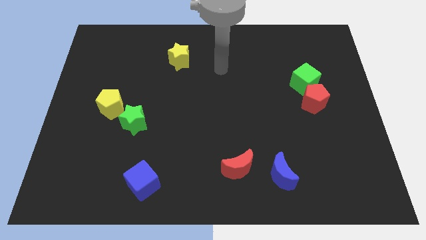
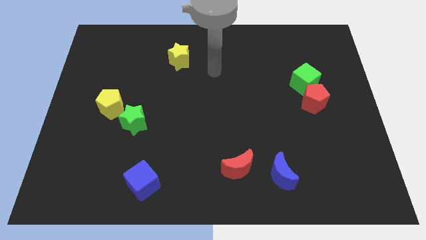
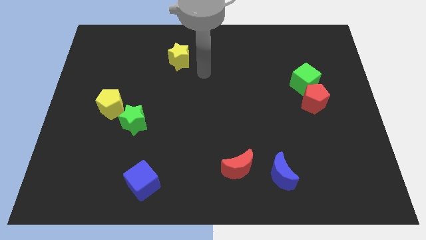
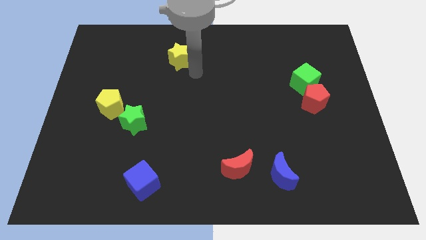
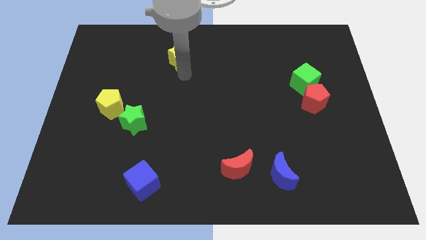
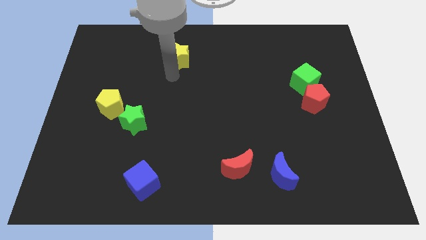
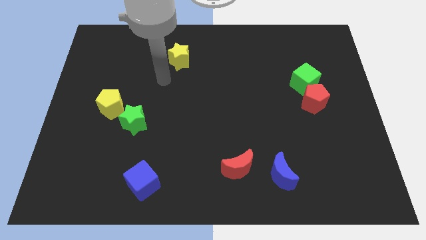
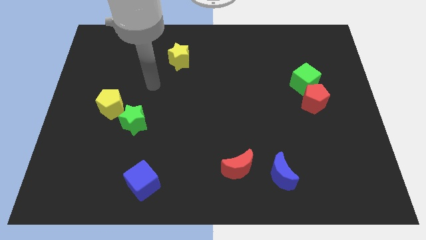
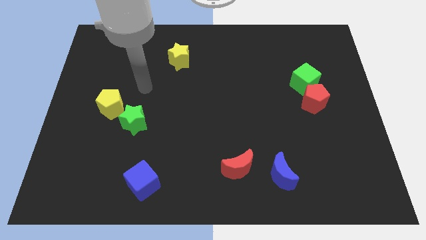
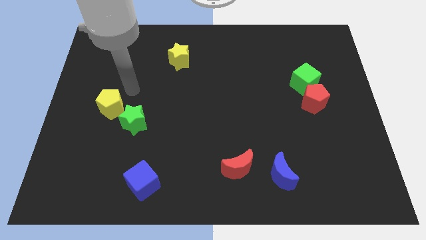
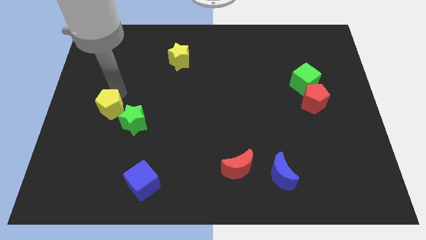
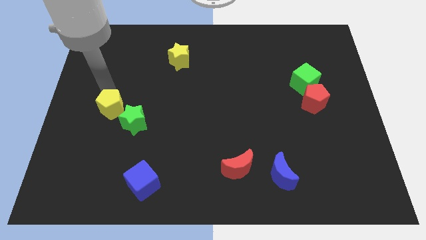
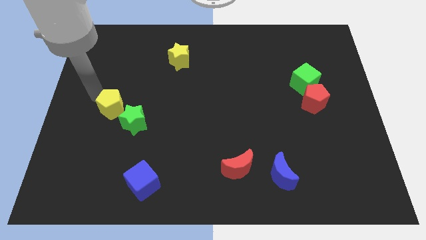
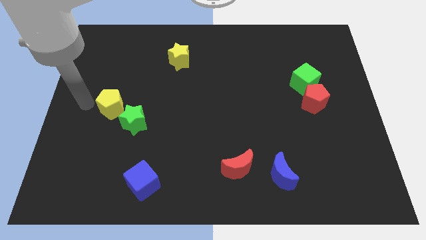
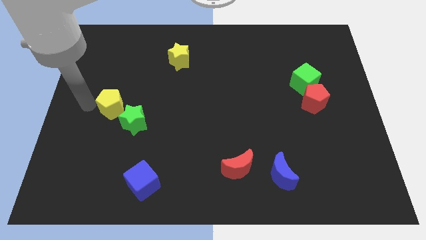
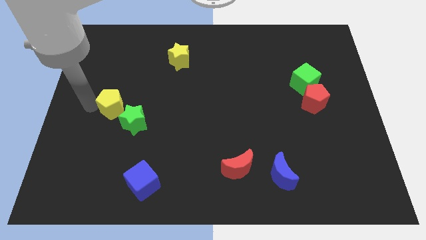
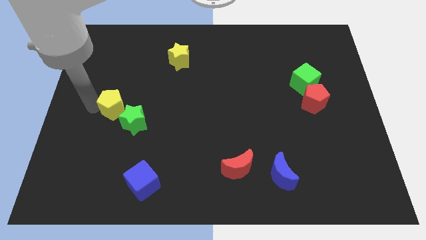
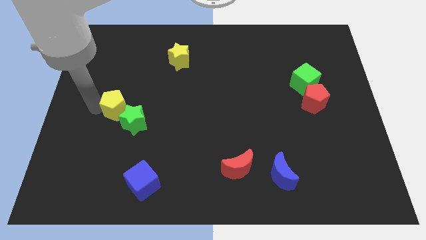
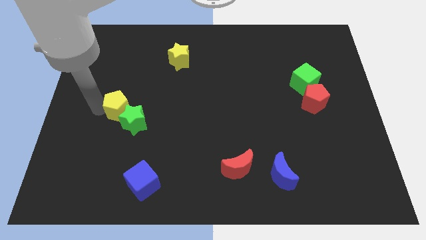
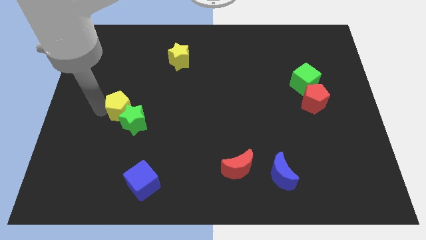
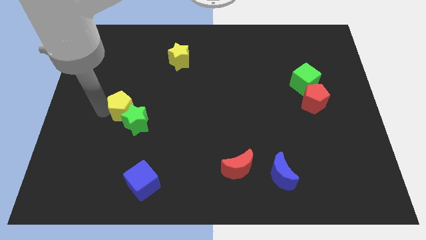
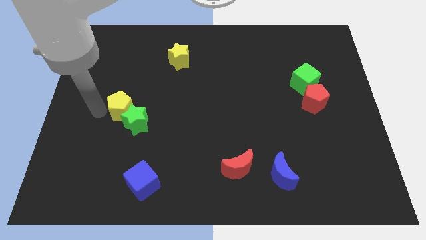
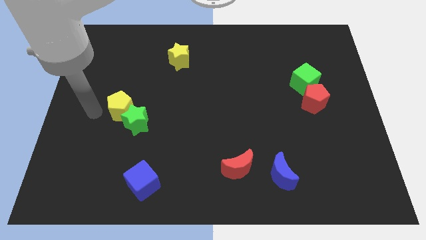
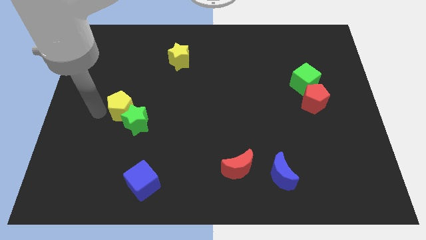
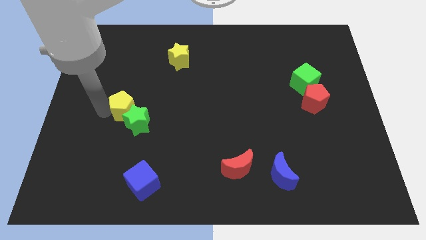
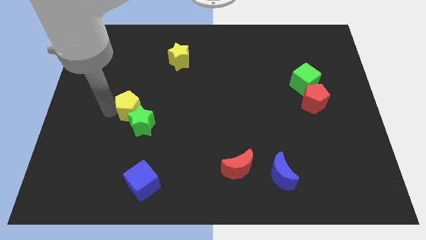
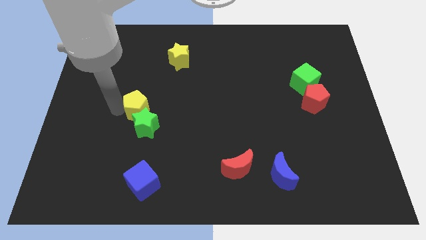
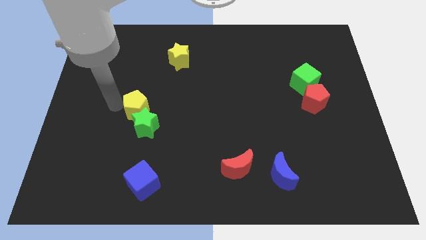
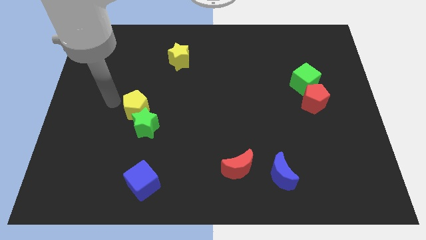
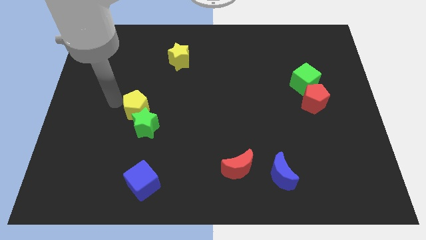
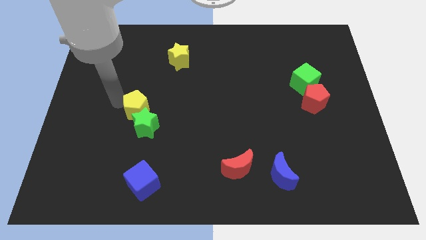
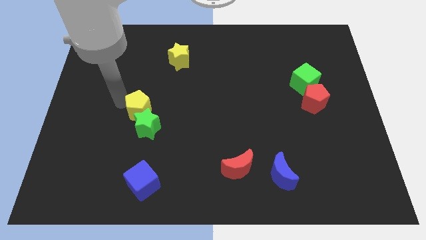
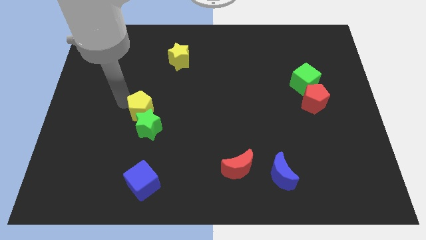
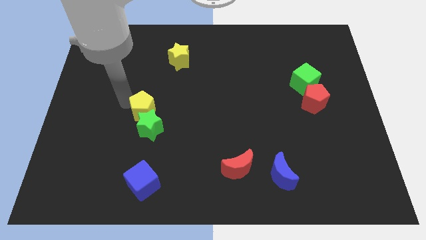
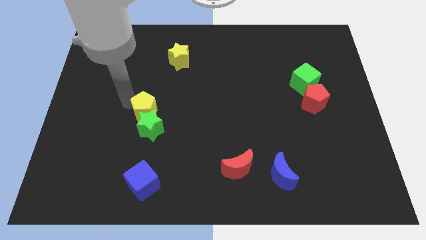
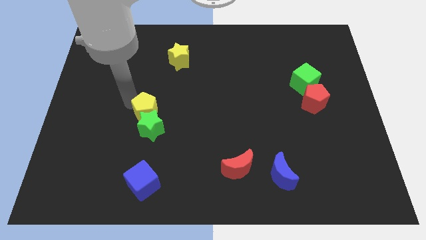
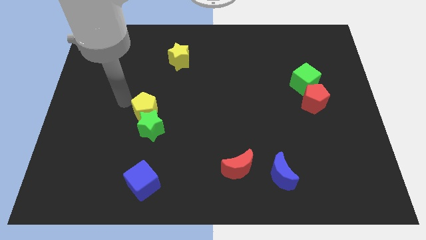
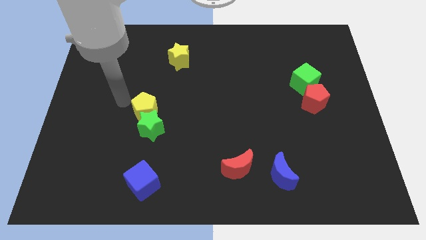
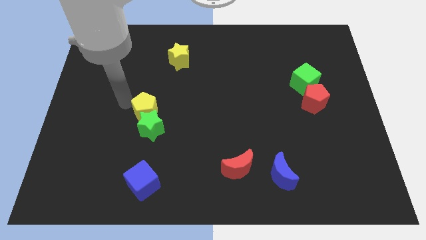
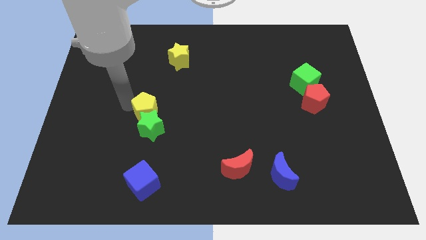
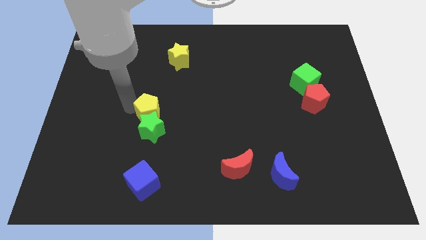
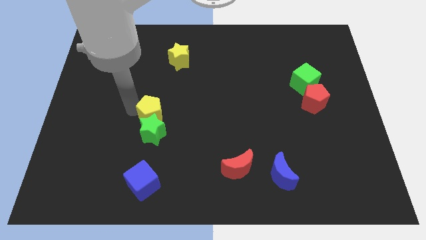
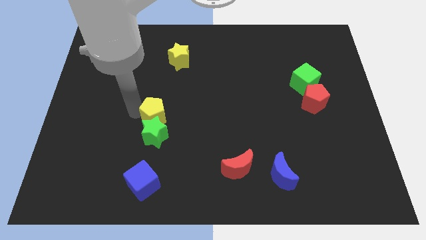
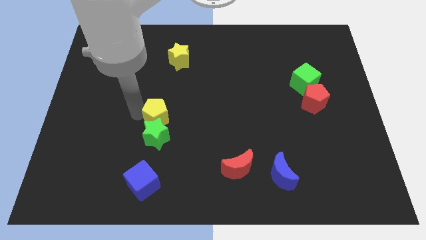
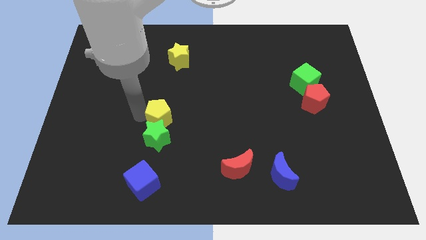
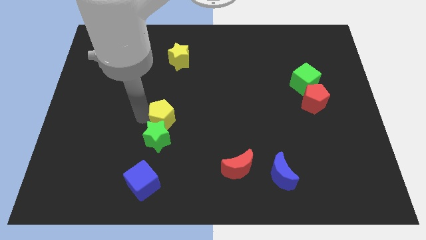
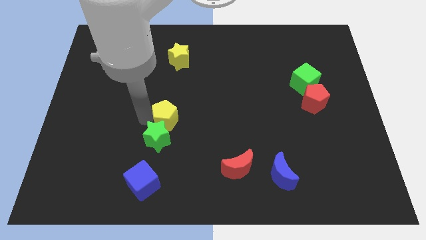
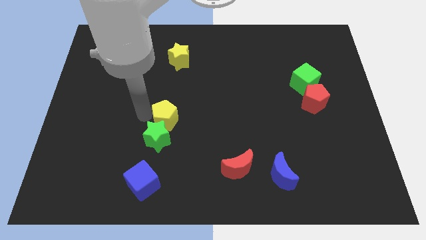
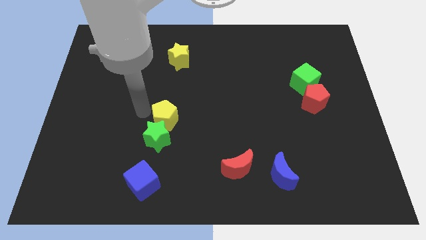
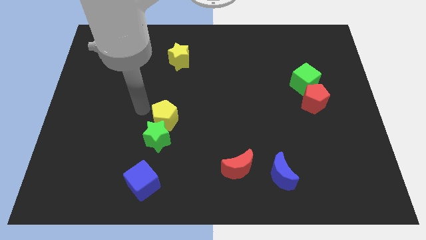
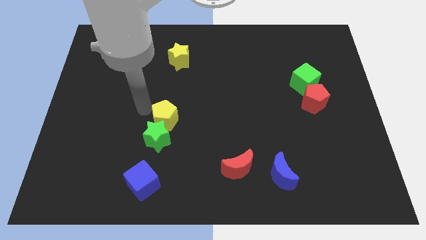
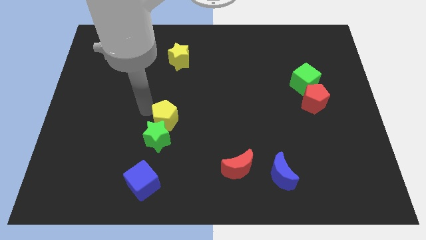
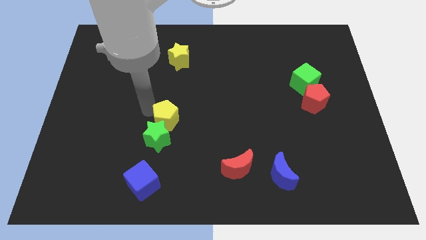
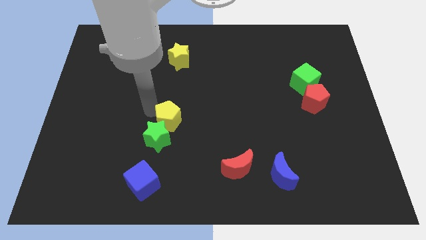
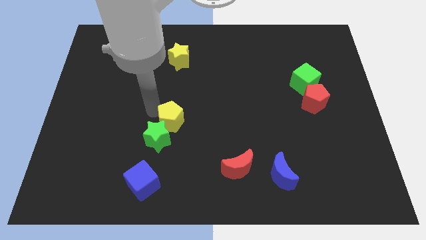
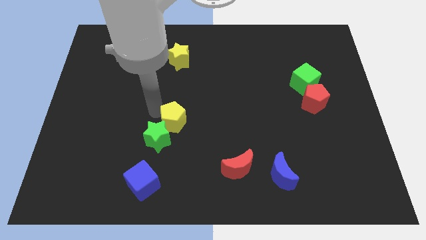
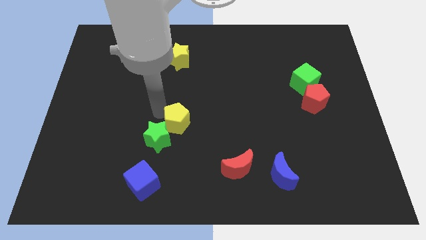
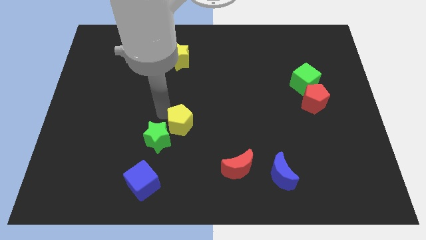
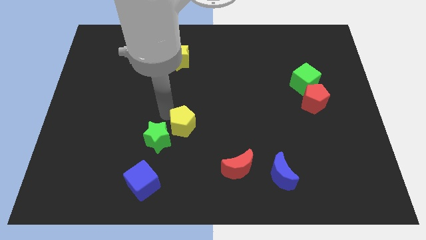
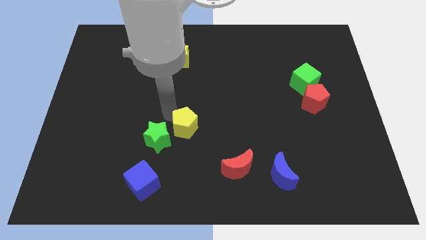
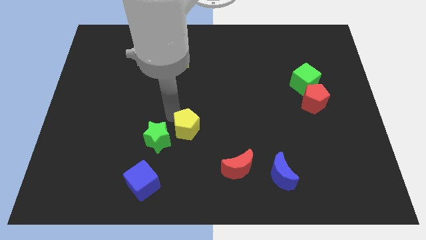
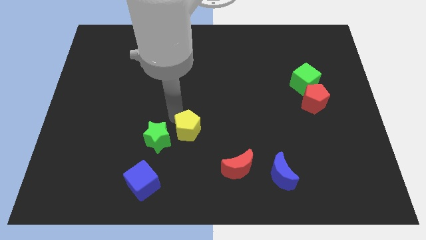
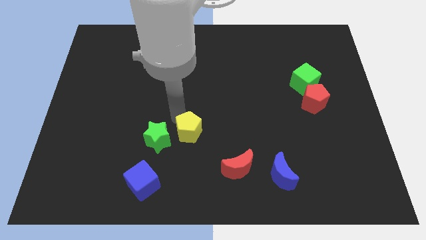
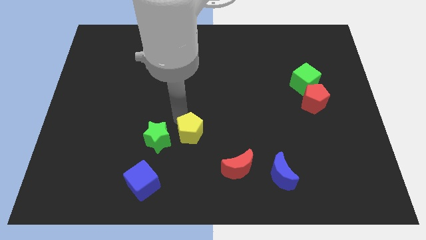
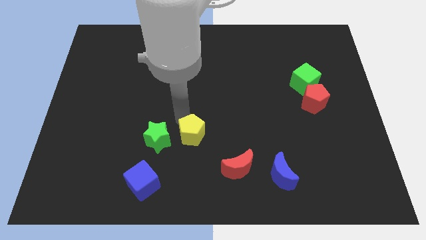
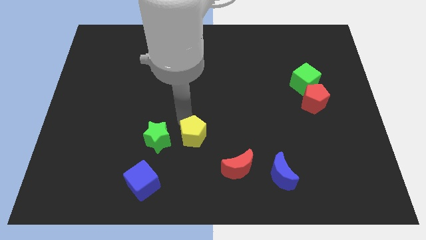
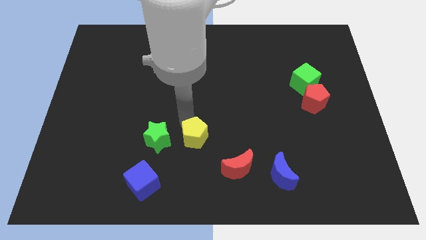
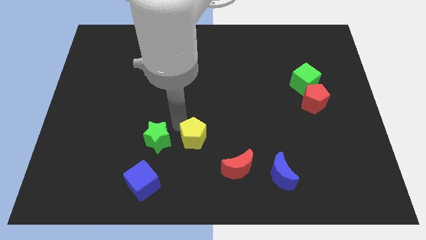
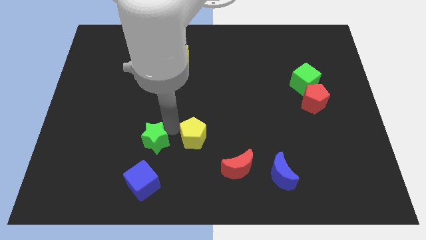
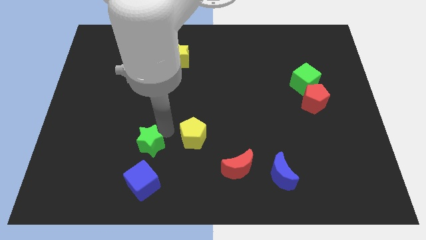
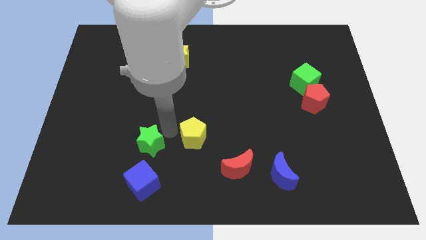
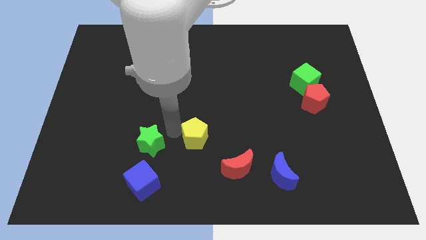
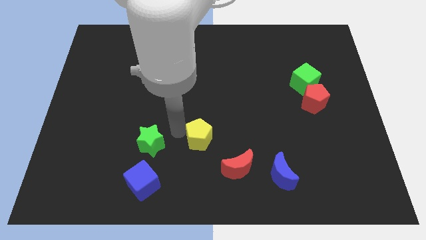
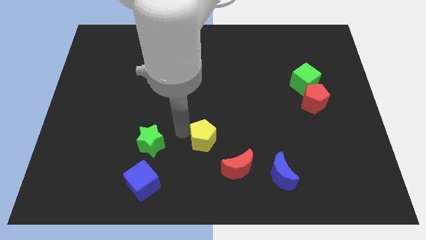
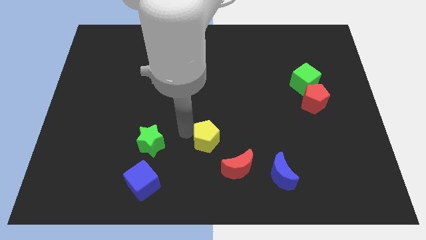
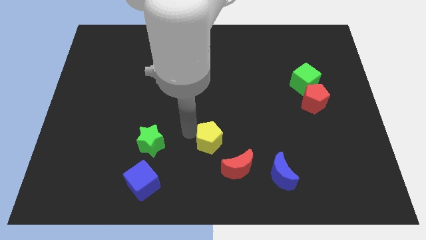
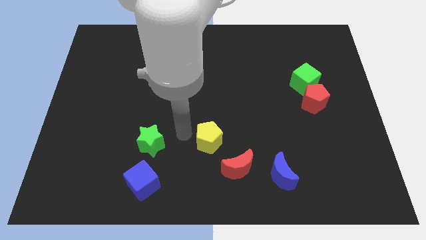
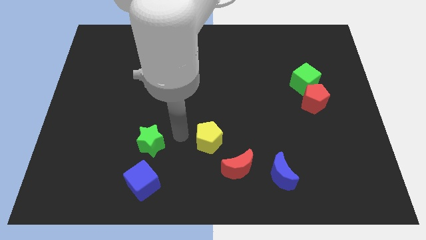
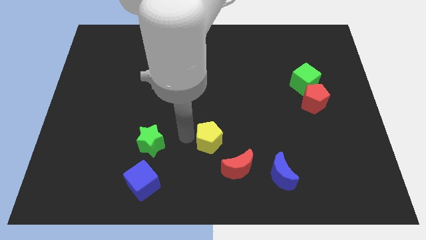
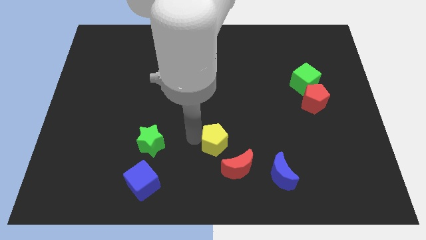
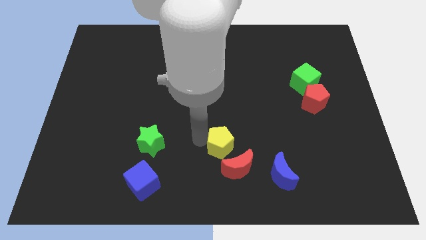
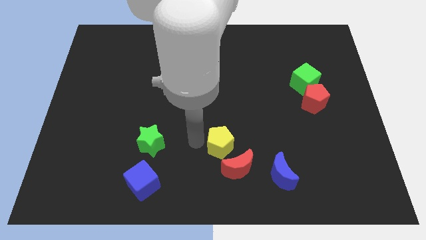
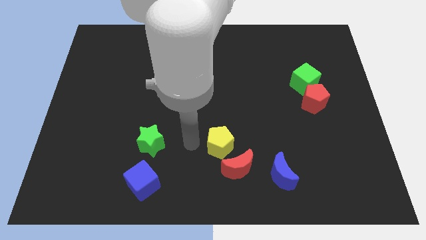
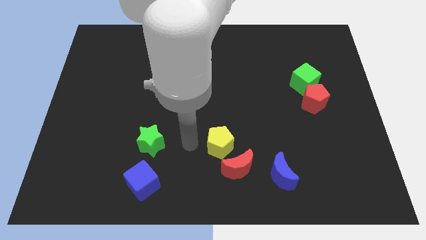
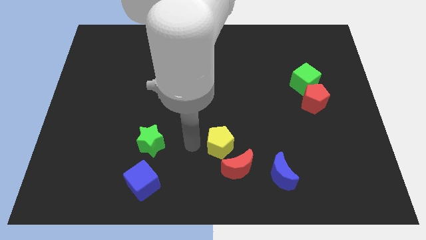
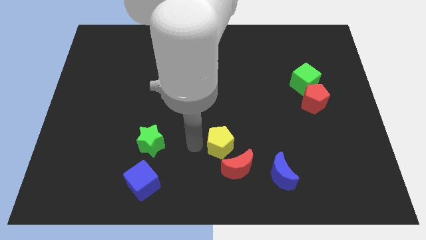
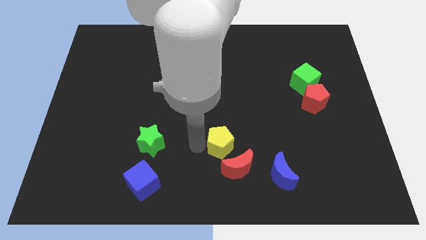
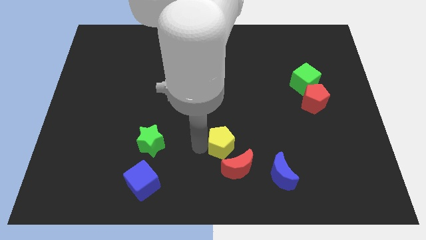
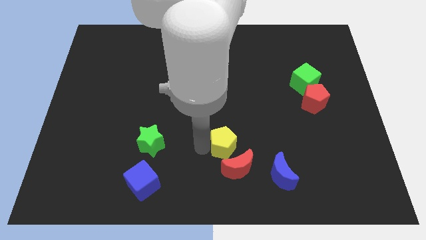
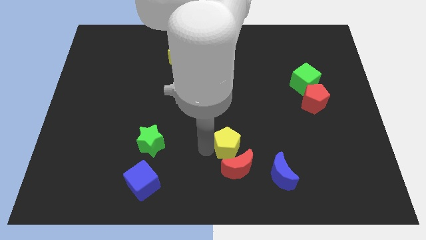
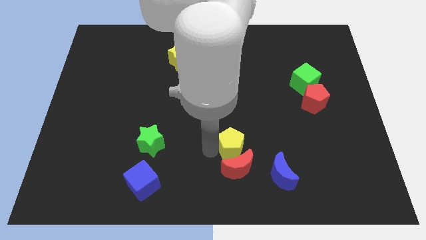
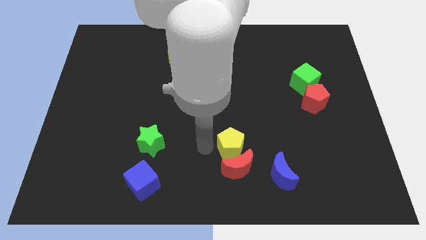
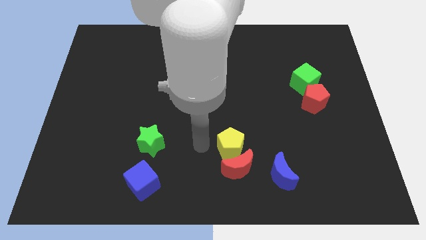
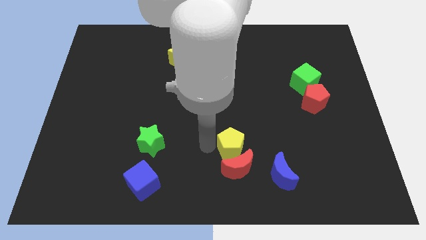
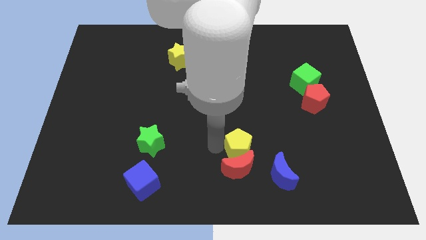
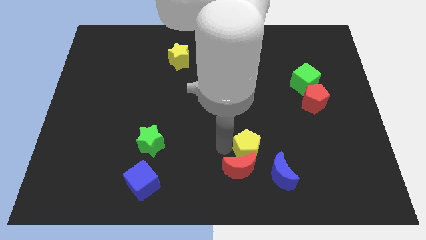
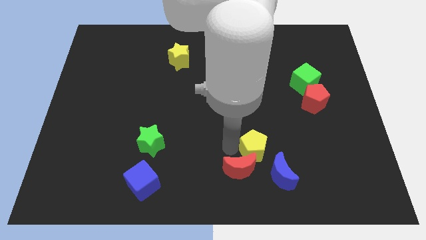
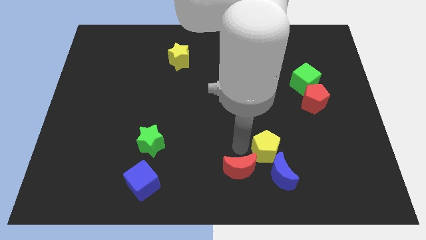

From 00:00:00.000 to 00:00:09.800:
put the yellow pentagon just right of the red moon
